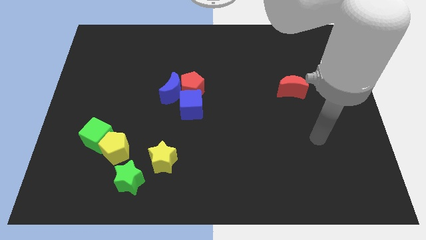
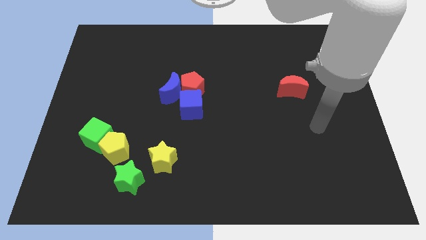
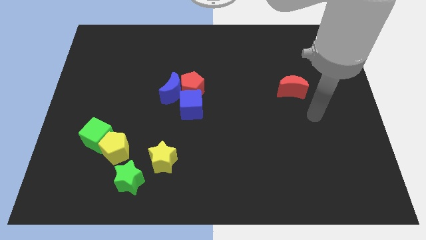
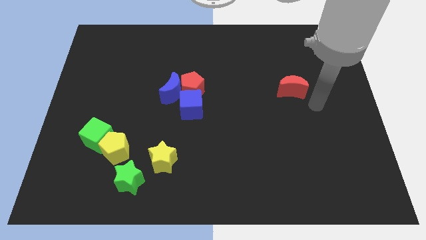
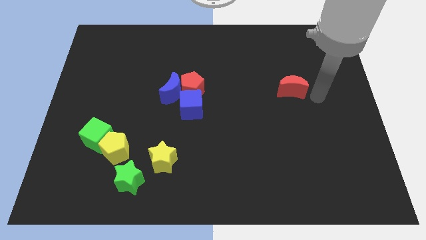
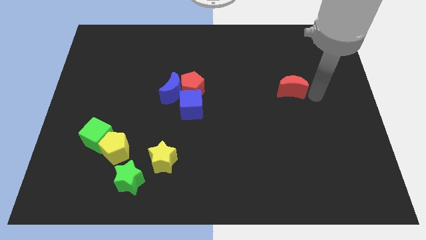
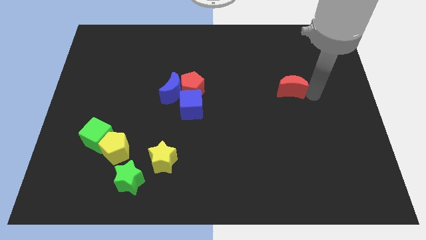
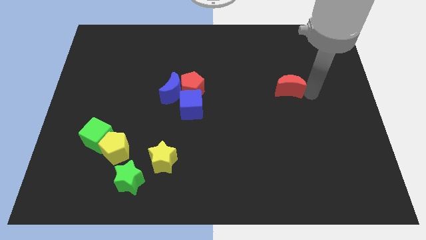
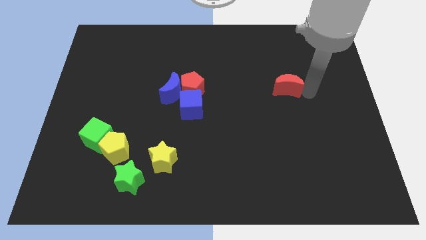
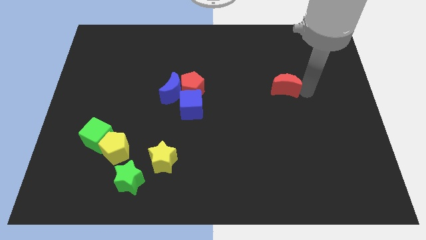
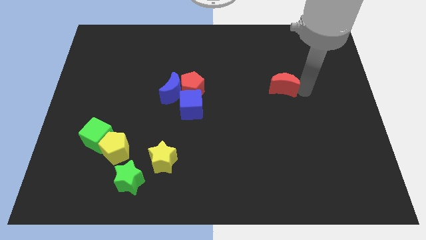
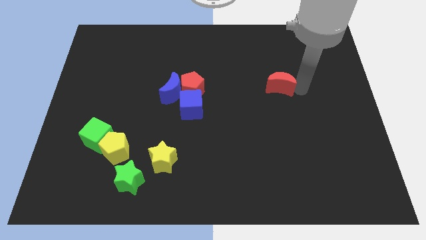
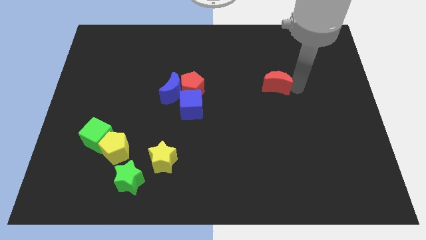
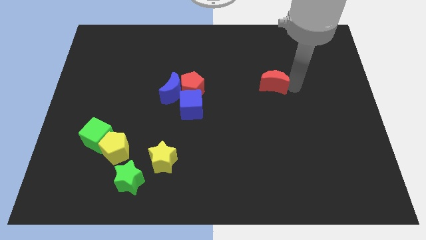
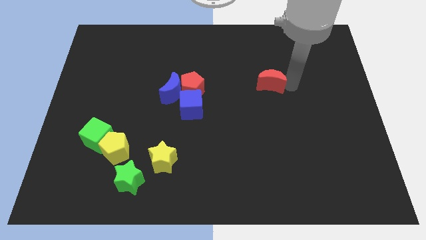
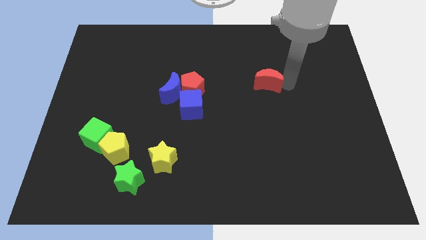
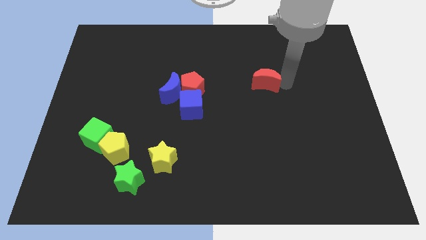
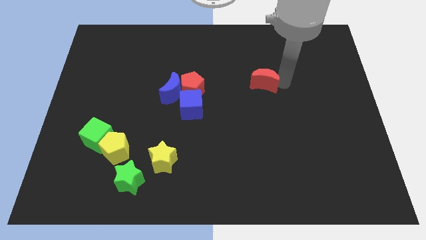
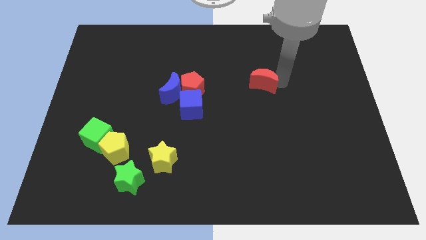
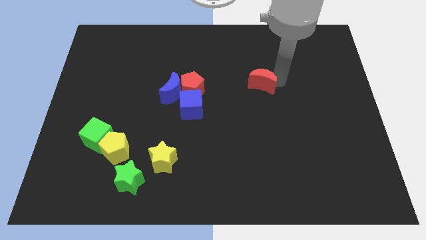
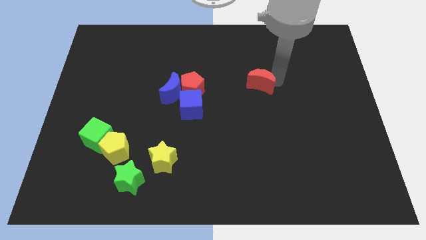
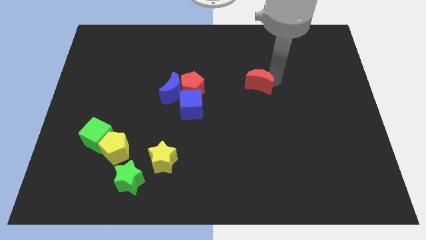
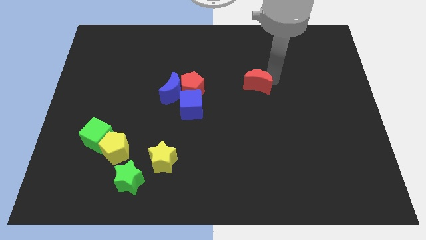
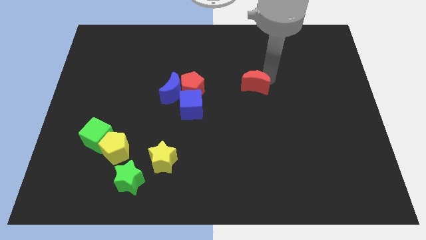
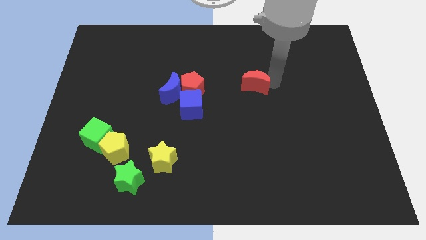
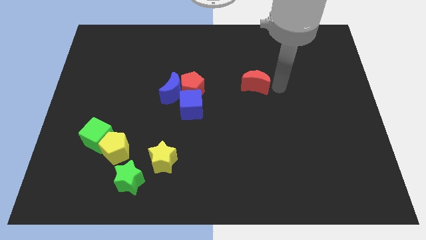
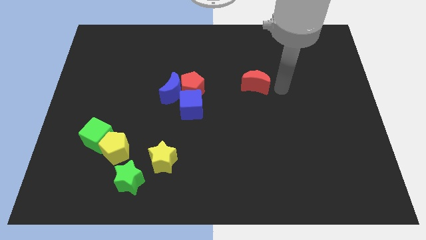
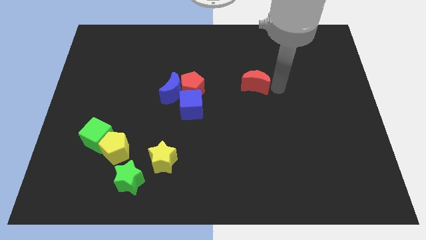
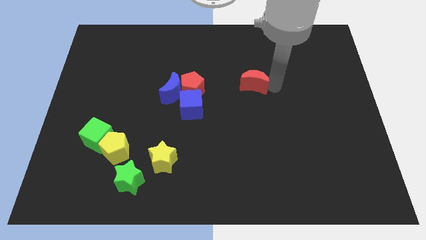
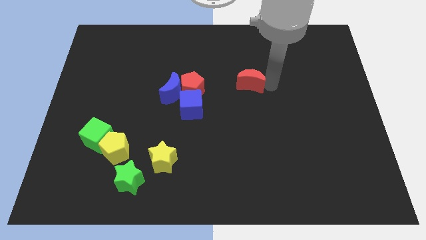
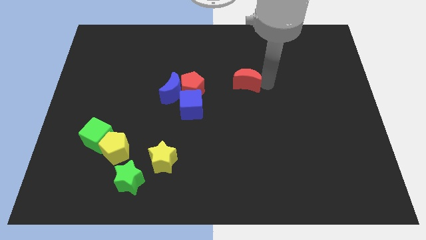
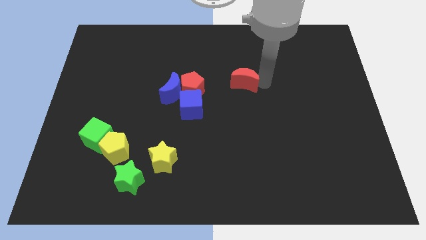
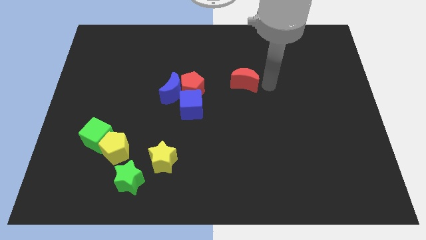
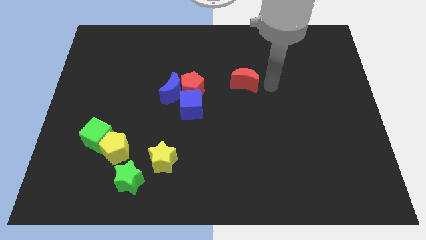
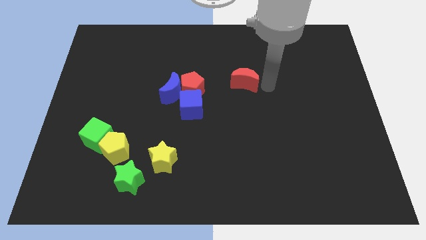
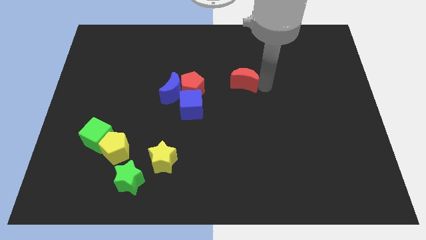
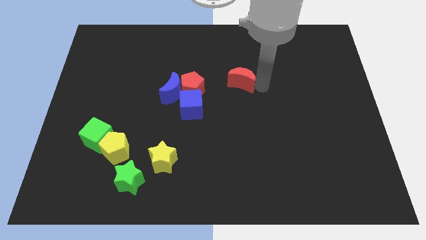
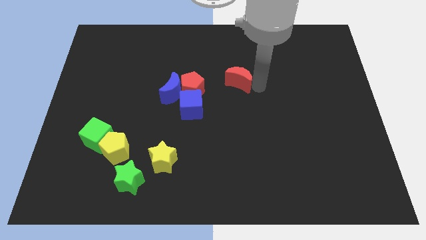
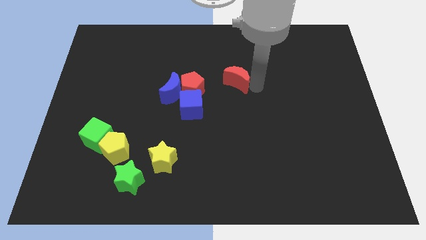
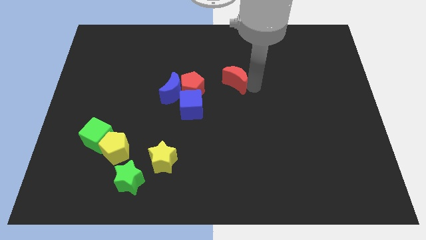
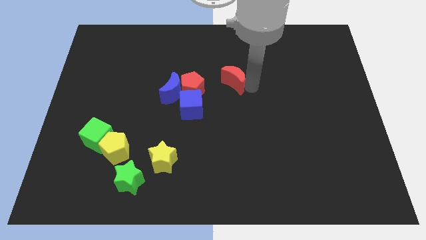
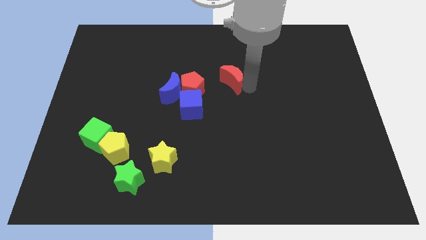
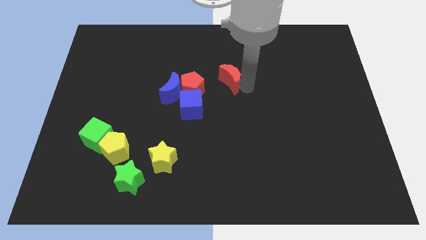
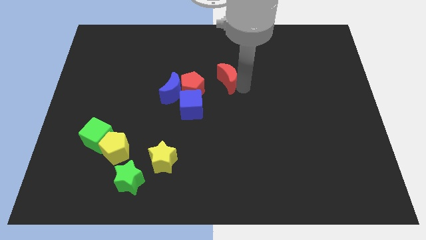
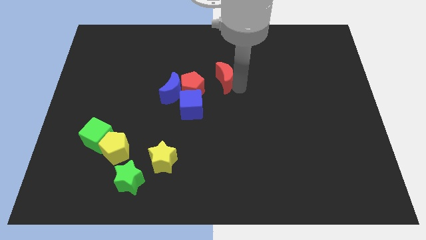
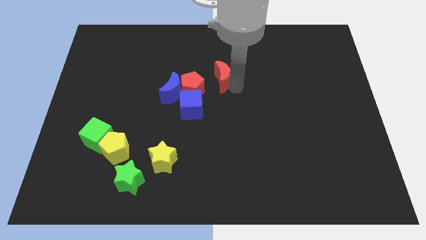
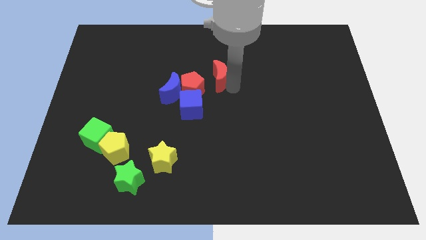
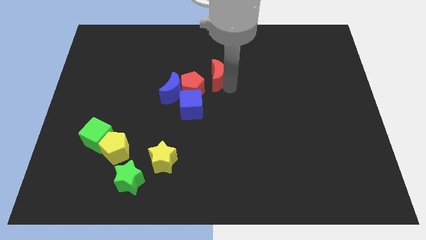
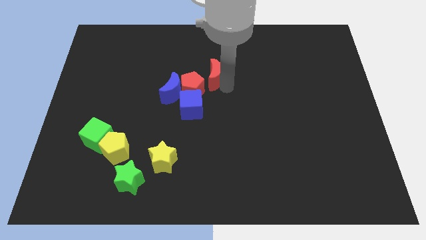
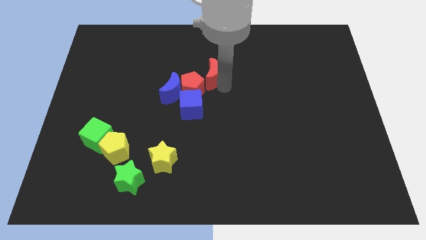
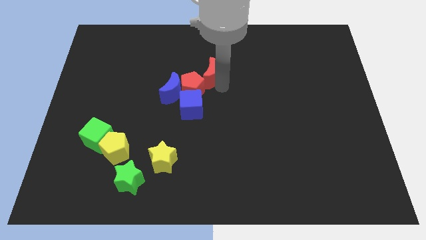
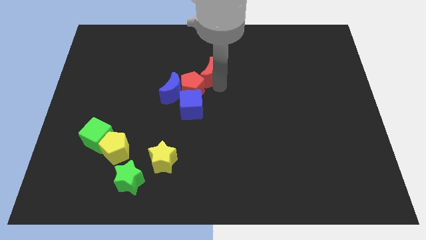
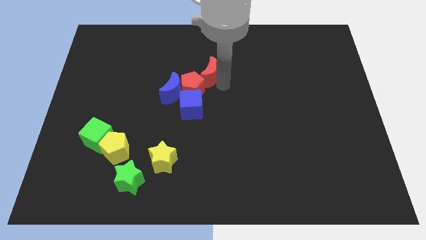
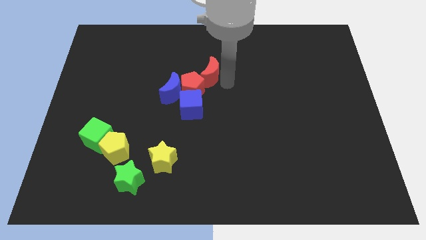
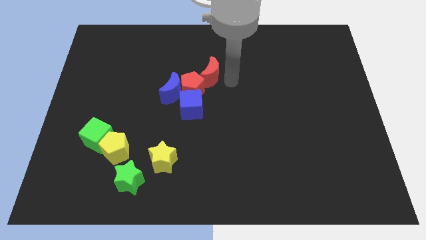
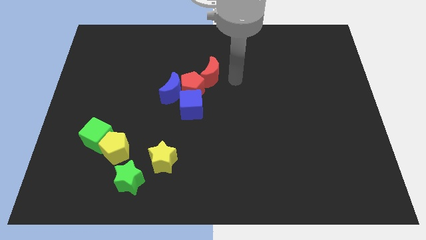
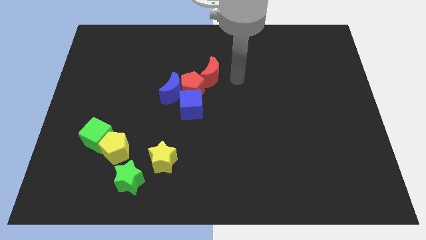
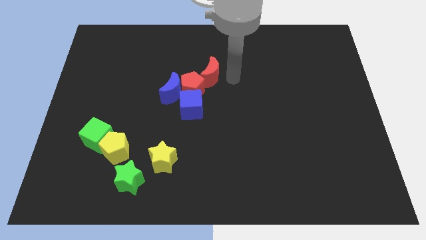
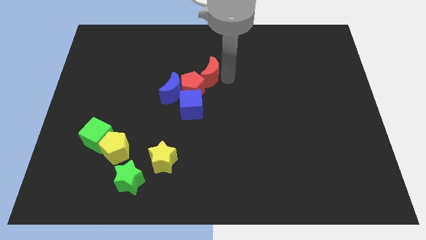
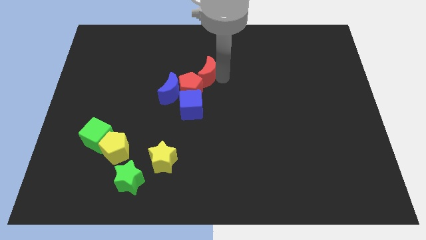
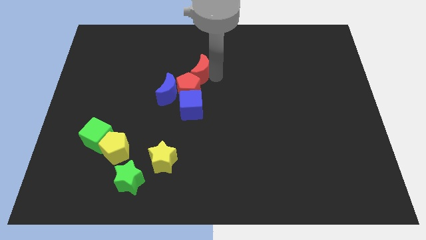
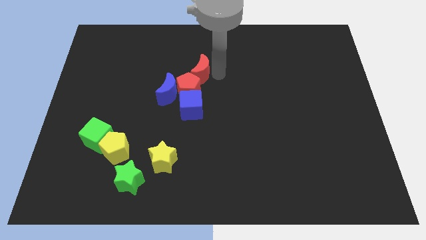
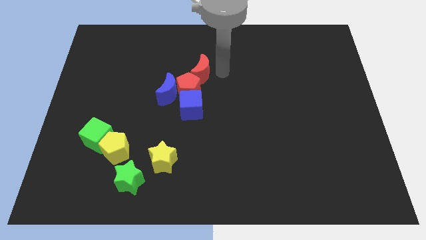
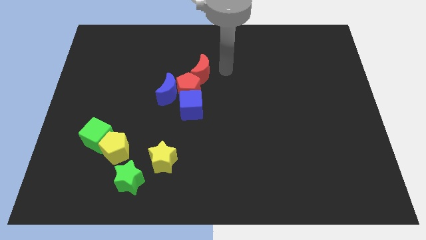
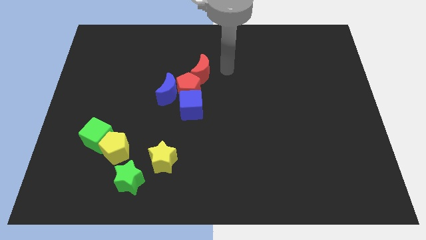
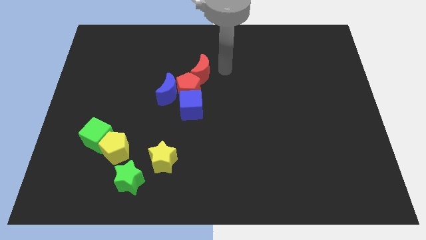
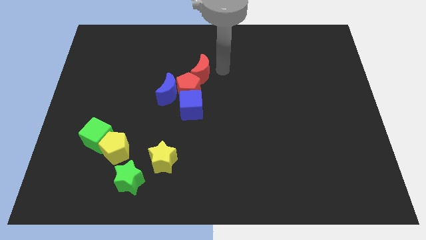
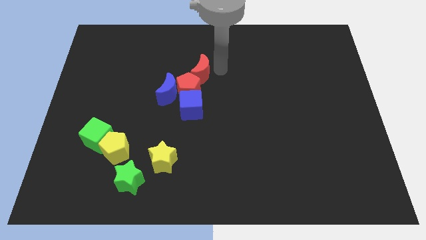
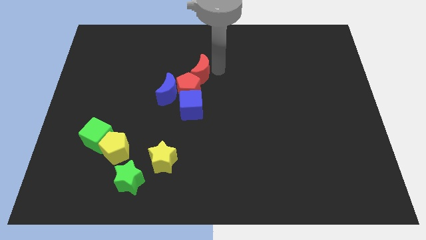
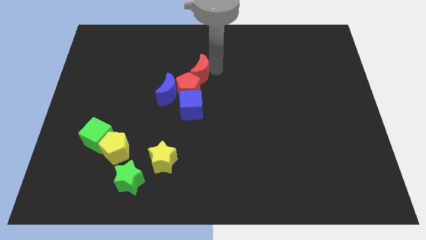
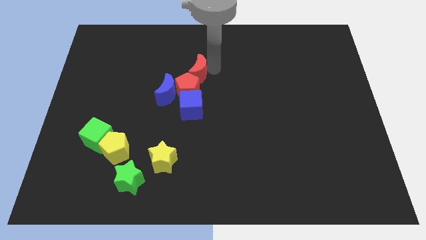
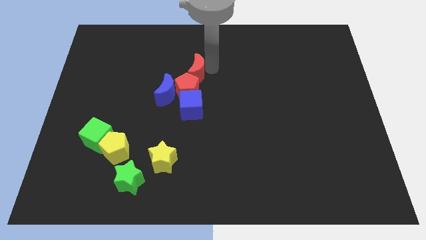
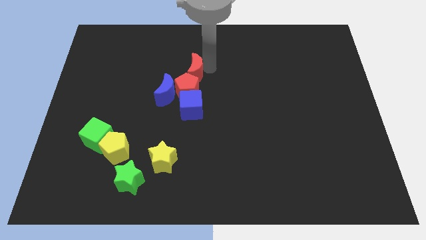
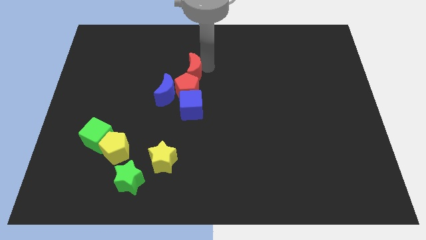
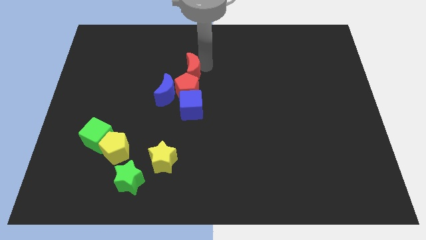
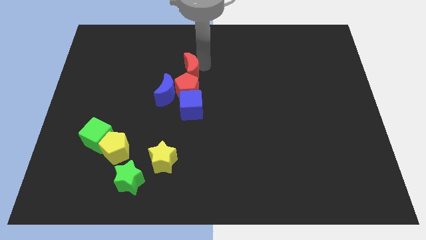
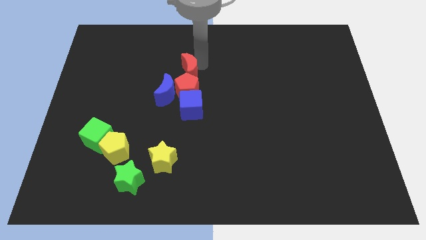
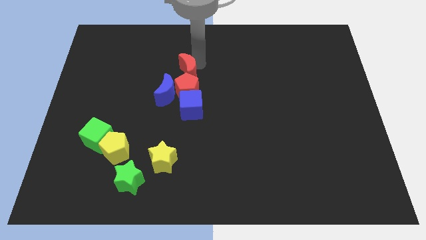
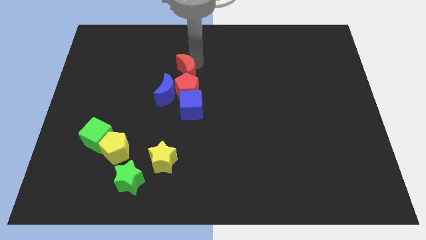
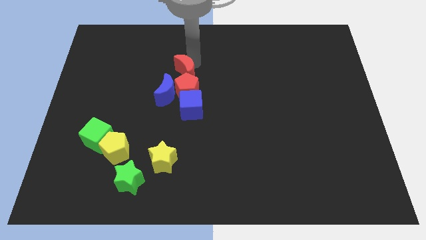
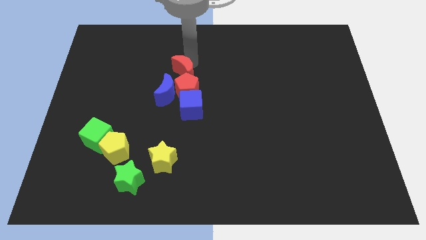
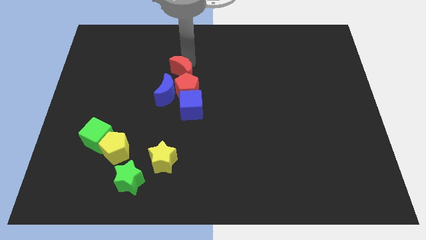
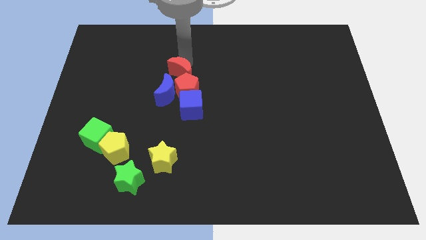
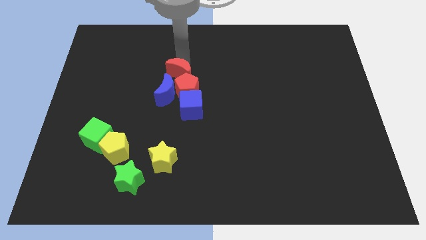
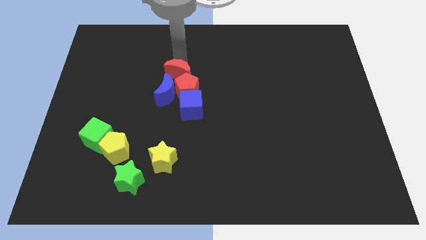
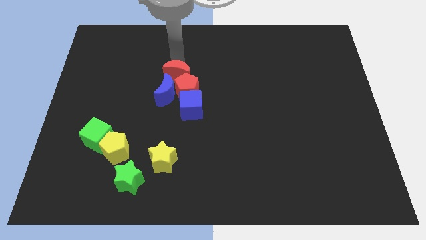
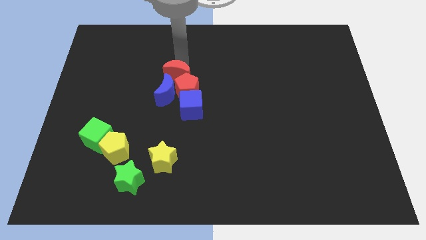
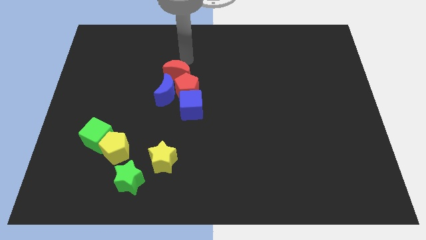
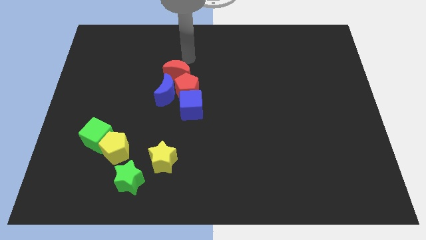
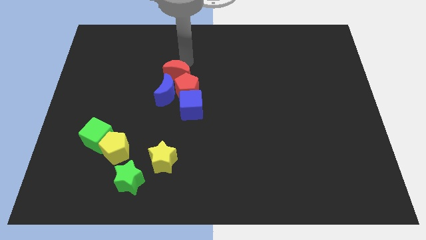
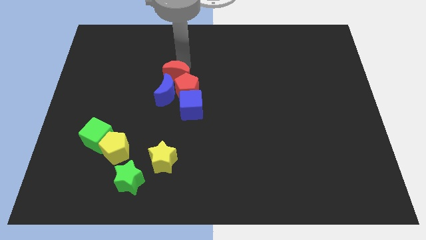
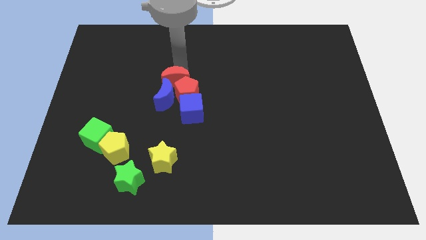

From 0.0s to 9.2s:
push the red moon close to the blue moon
